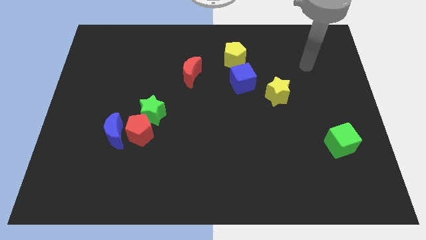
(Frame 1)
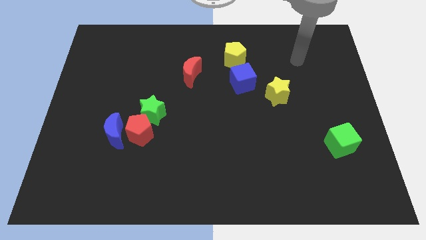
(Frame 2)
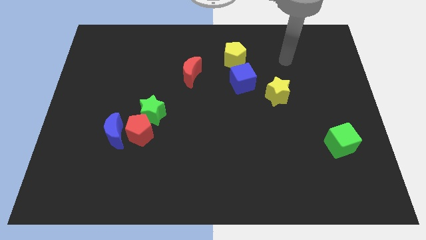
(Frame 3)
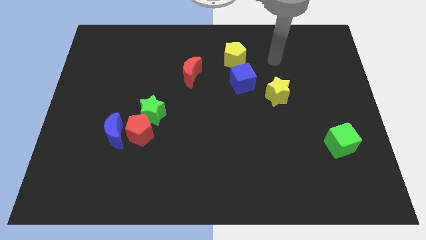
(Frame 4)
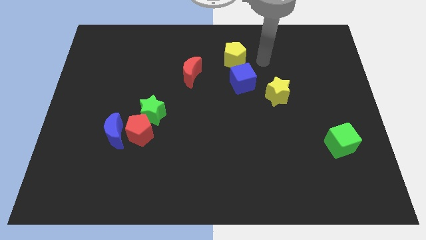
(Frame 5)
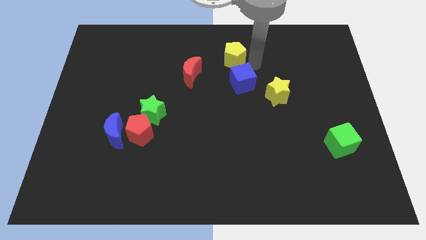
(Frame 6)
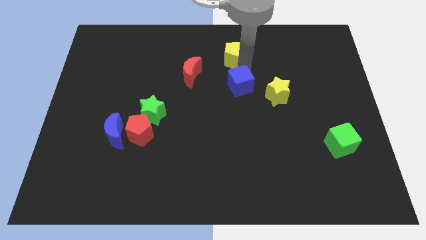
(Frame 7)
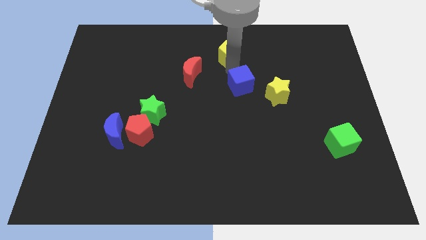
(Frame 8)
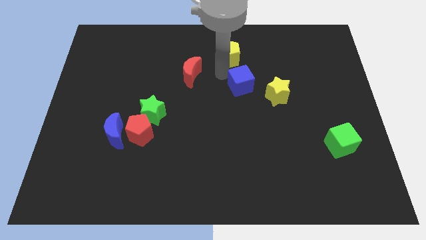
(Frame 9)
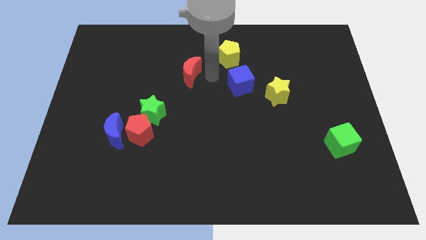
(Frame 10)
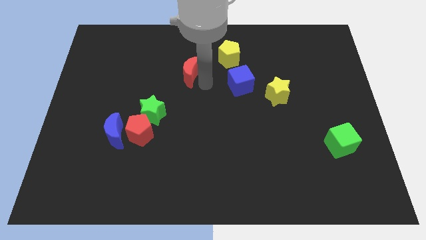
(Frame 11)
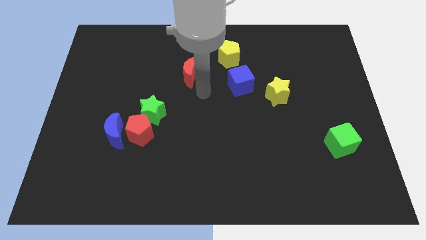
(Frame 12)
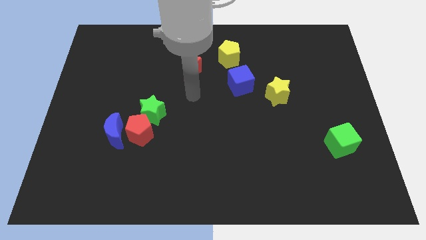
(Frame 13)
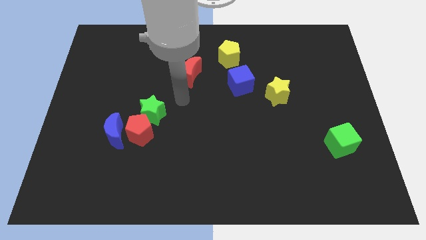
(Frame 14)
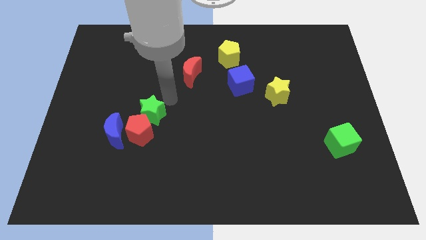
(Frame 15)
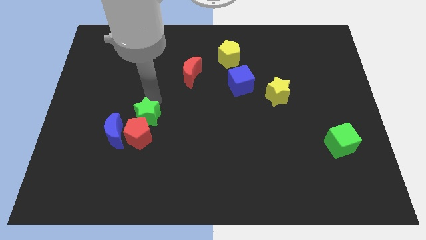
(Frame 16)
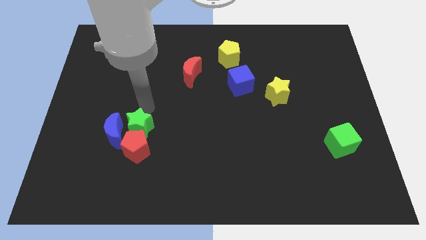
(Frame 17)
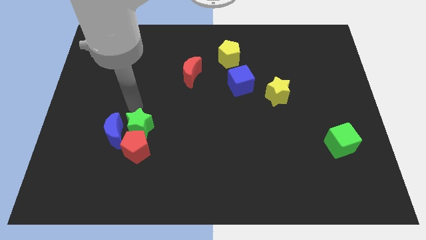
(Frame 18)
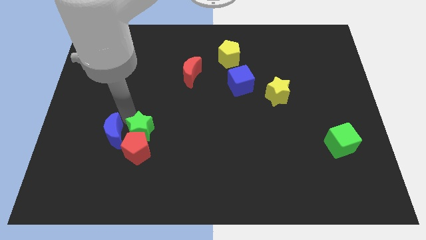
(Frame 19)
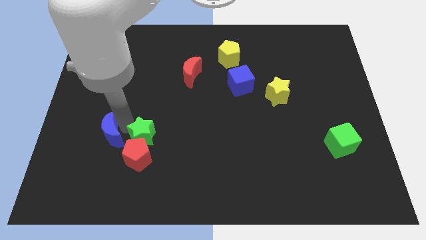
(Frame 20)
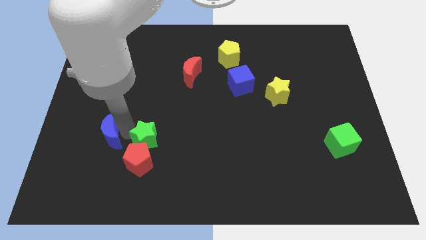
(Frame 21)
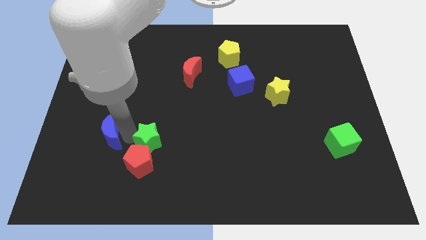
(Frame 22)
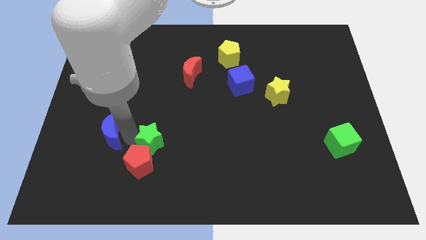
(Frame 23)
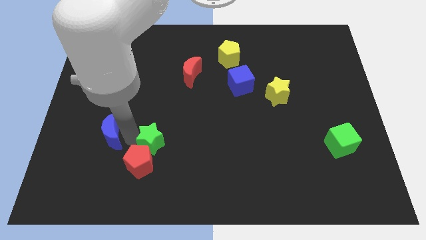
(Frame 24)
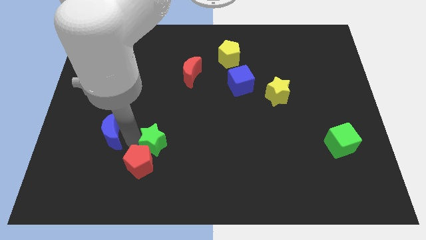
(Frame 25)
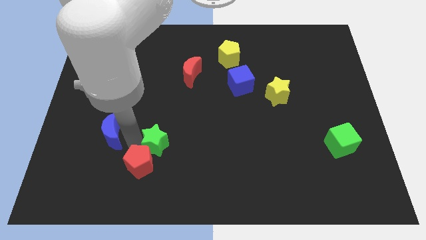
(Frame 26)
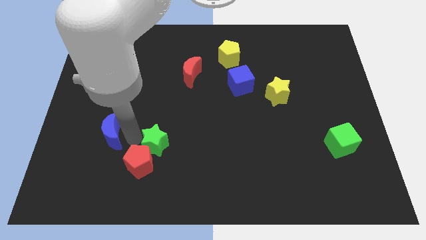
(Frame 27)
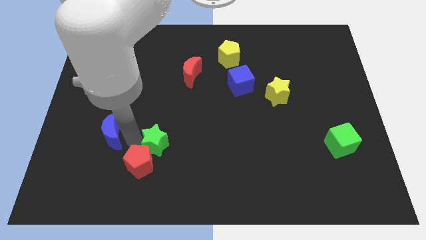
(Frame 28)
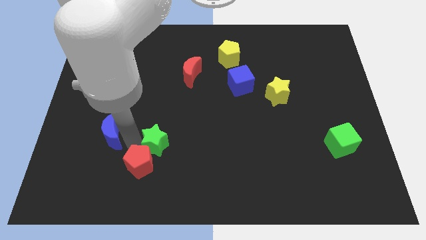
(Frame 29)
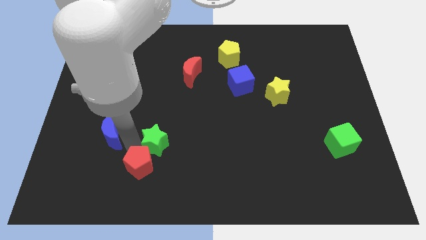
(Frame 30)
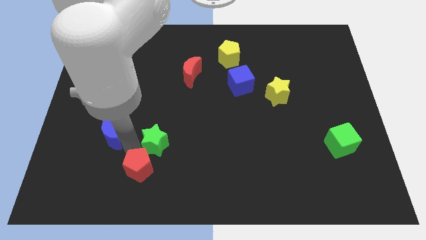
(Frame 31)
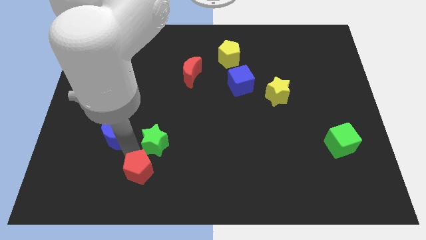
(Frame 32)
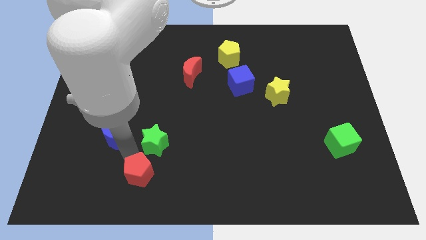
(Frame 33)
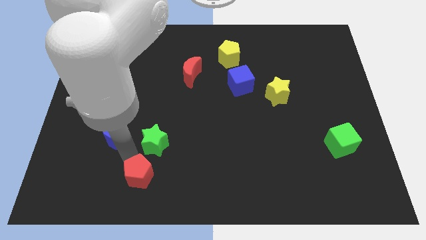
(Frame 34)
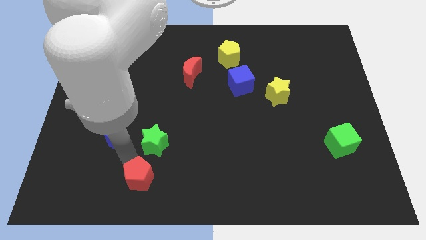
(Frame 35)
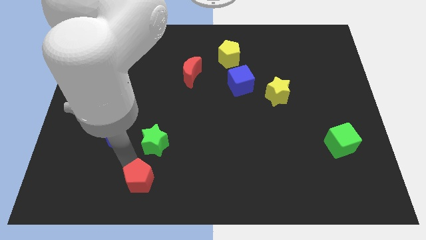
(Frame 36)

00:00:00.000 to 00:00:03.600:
pull the red pentagon apart from the blue moon and green star

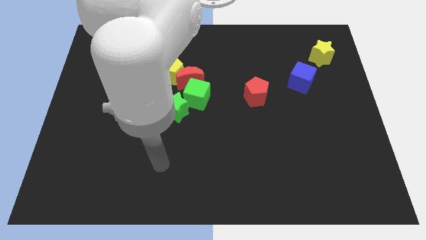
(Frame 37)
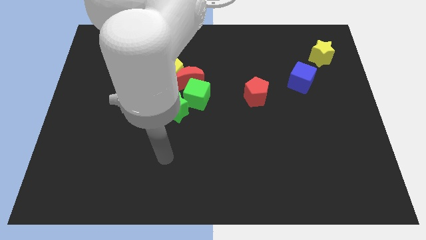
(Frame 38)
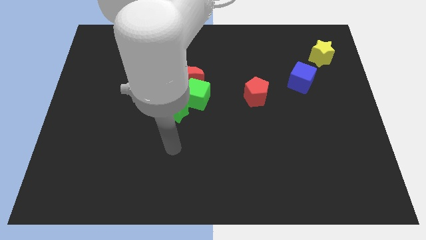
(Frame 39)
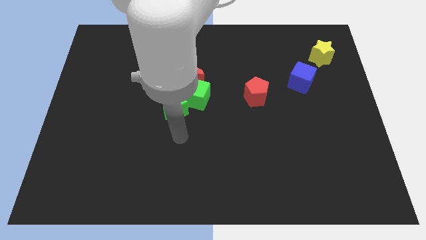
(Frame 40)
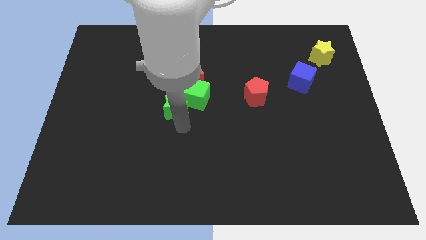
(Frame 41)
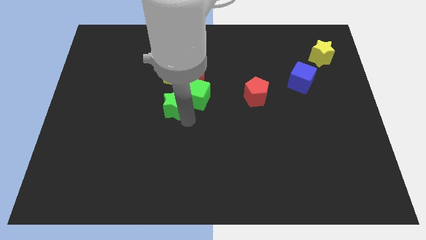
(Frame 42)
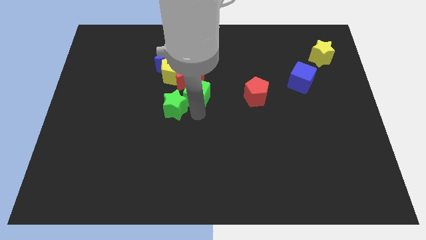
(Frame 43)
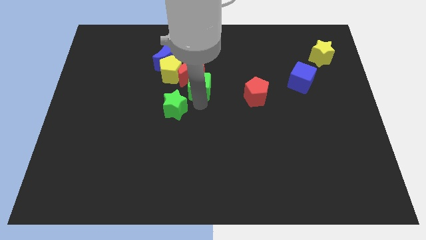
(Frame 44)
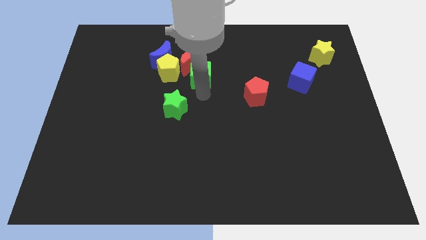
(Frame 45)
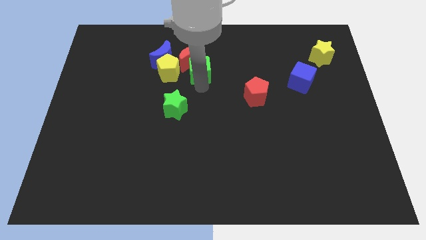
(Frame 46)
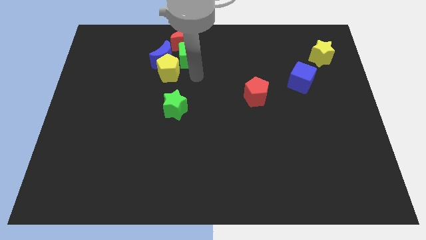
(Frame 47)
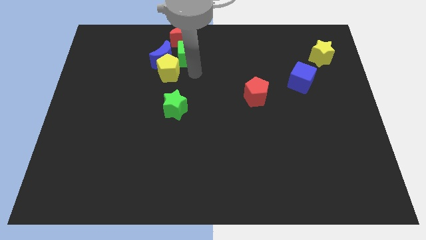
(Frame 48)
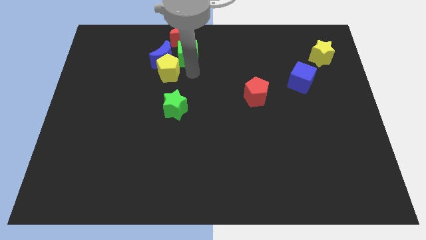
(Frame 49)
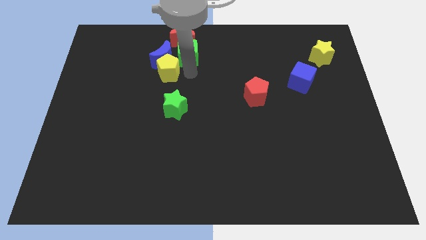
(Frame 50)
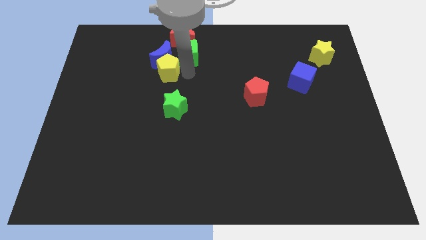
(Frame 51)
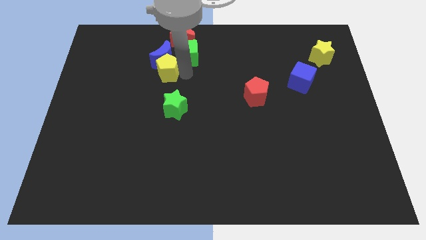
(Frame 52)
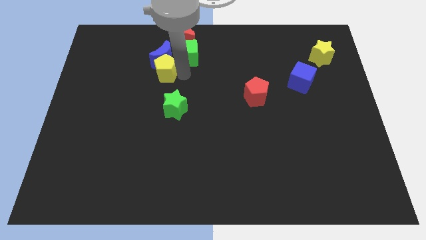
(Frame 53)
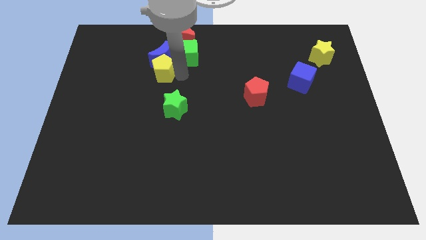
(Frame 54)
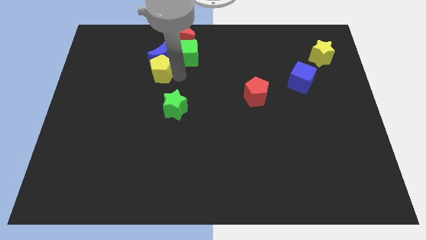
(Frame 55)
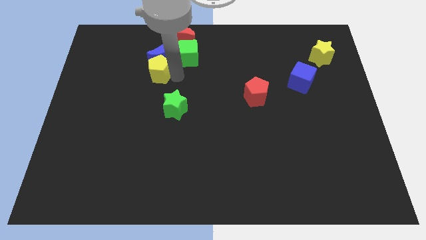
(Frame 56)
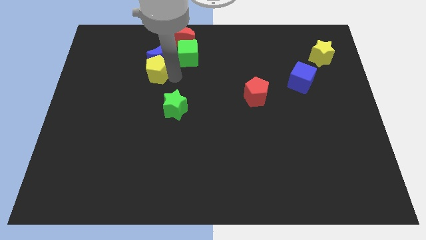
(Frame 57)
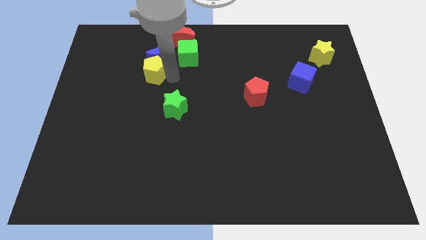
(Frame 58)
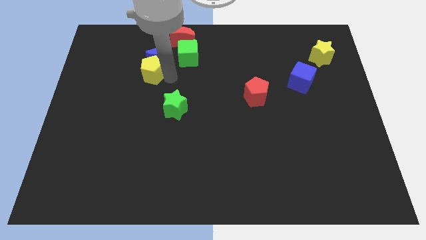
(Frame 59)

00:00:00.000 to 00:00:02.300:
pull the yellow pentagon apart from the group of blocks

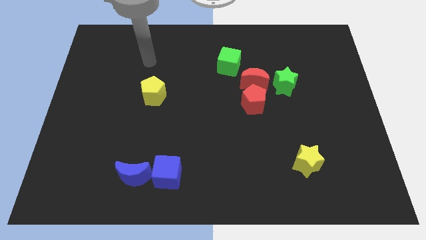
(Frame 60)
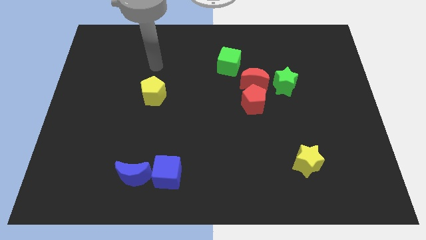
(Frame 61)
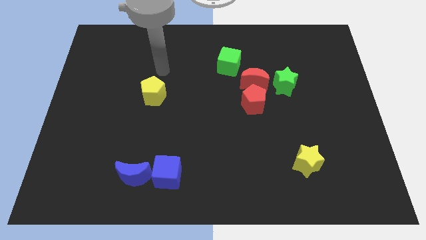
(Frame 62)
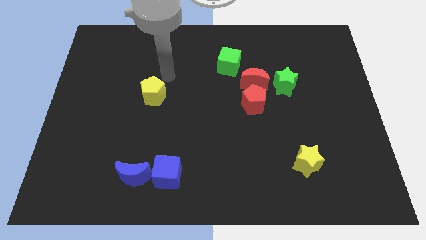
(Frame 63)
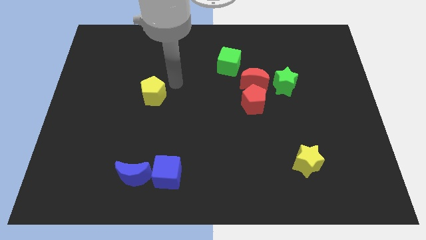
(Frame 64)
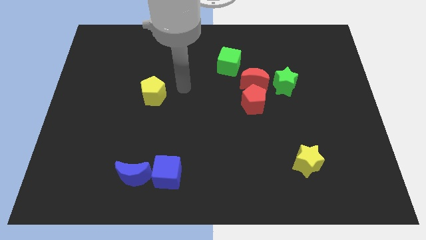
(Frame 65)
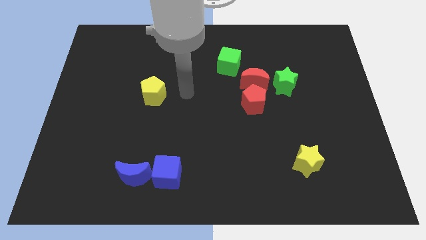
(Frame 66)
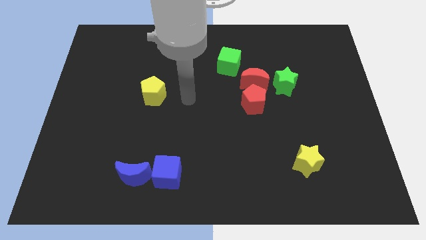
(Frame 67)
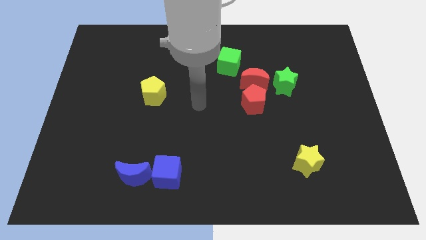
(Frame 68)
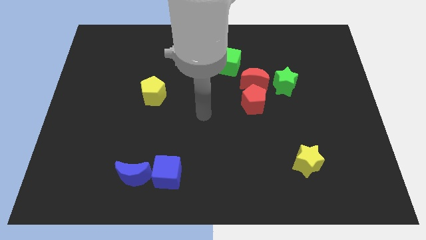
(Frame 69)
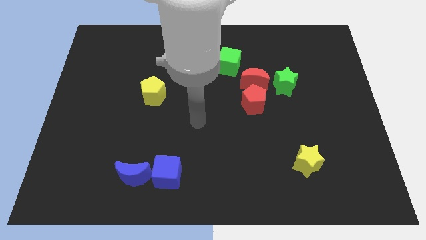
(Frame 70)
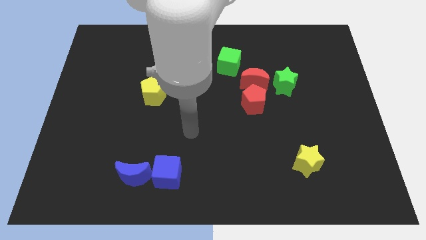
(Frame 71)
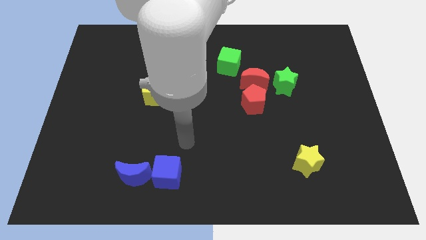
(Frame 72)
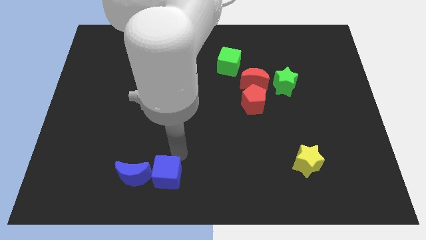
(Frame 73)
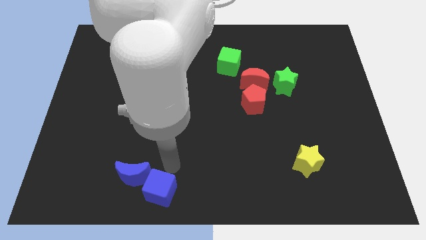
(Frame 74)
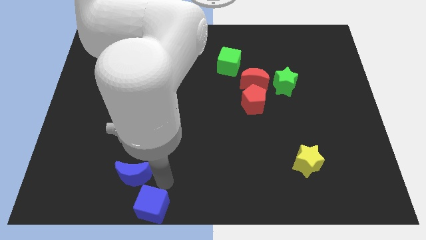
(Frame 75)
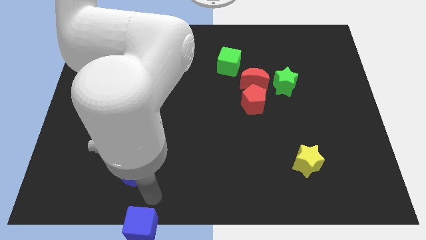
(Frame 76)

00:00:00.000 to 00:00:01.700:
move the blue moon away from the blue cube

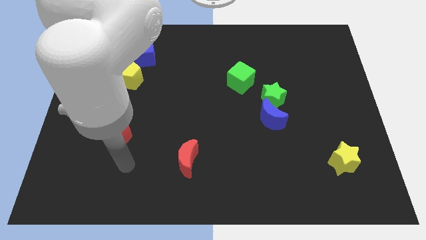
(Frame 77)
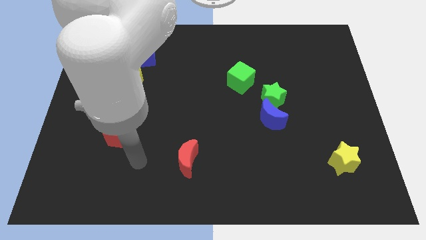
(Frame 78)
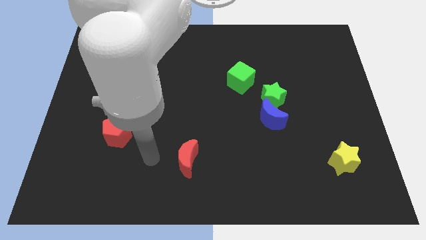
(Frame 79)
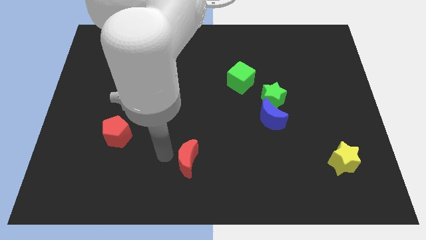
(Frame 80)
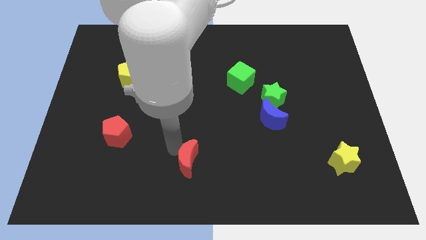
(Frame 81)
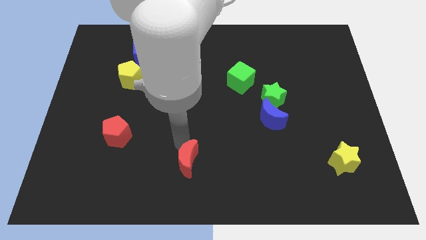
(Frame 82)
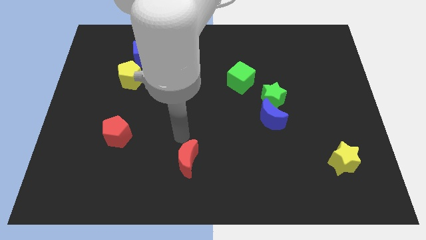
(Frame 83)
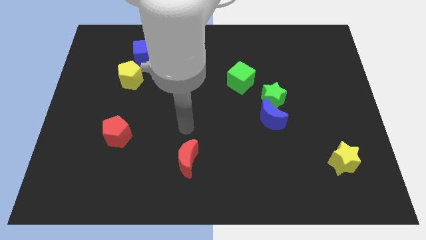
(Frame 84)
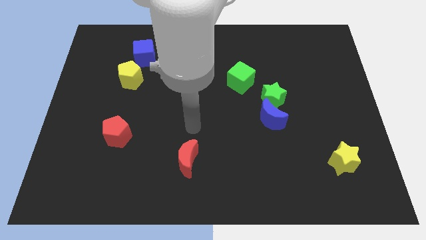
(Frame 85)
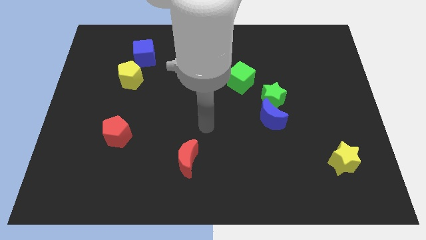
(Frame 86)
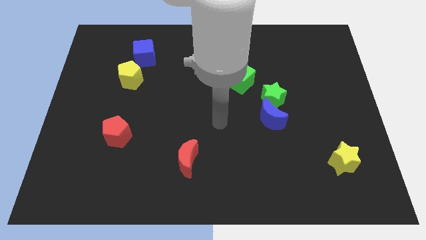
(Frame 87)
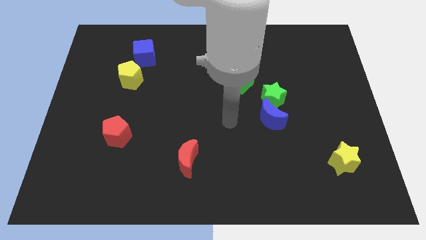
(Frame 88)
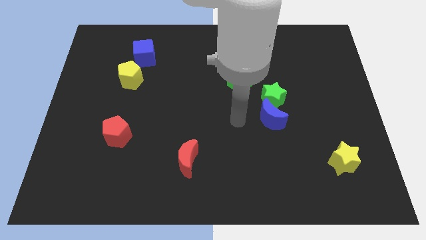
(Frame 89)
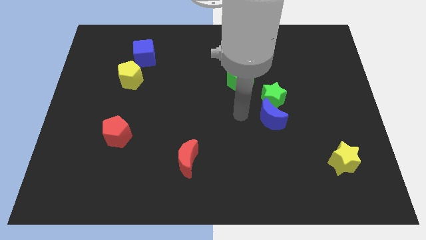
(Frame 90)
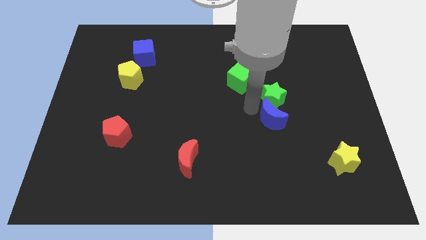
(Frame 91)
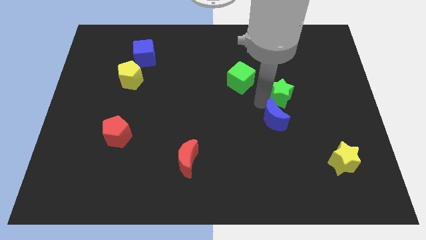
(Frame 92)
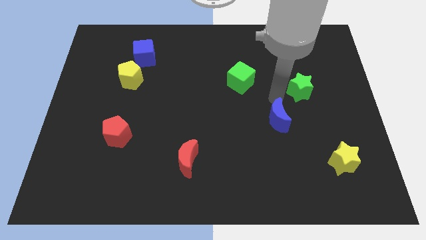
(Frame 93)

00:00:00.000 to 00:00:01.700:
separate the blue moon from the green star
